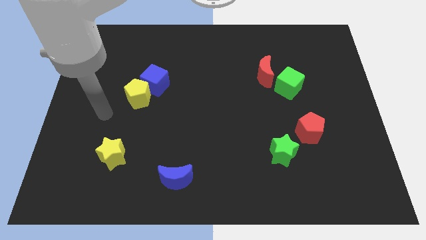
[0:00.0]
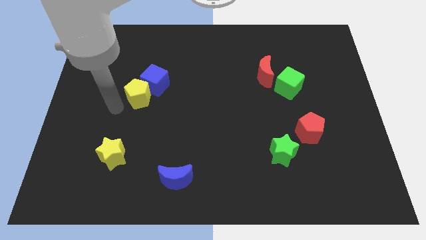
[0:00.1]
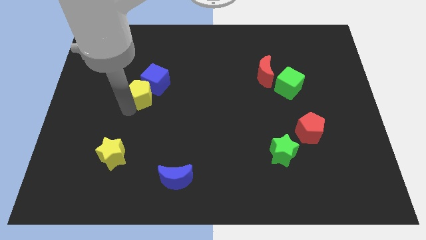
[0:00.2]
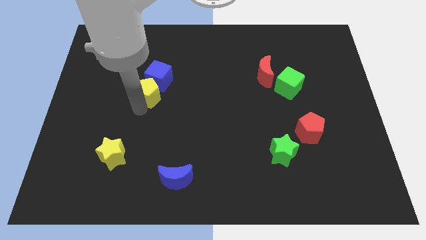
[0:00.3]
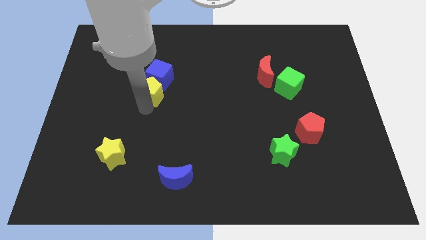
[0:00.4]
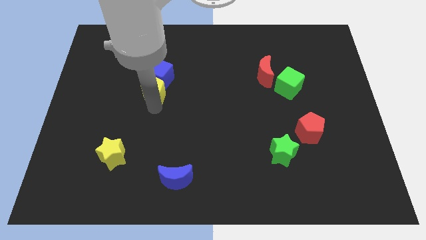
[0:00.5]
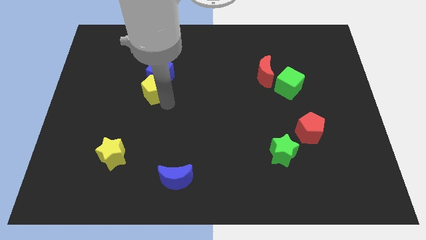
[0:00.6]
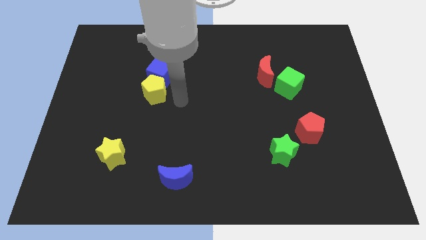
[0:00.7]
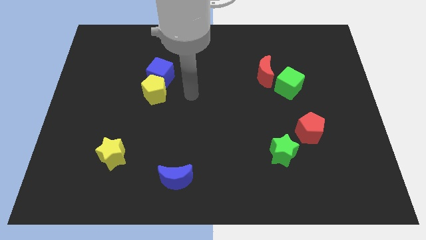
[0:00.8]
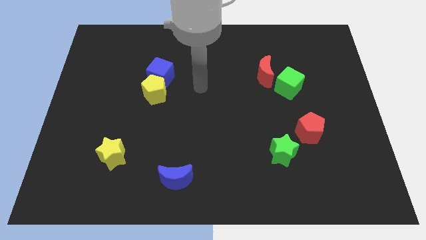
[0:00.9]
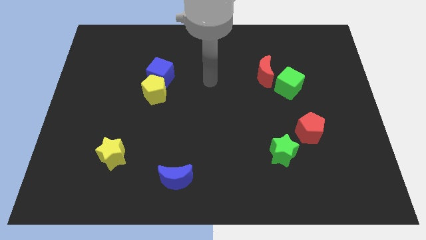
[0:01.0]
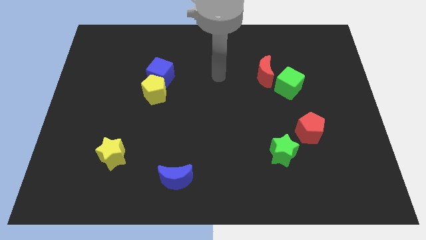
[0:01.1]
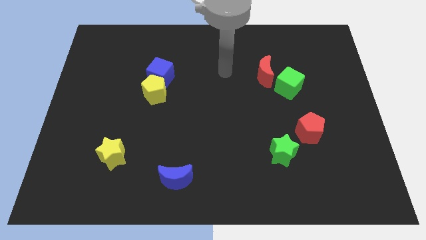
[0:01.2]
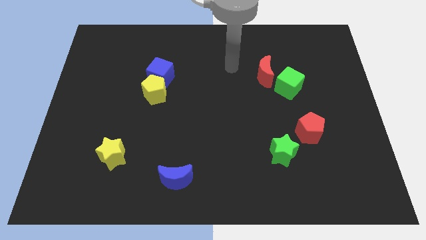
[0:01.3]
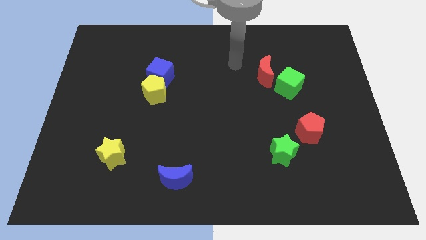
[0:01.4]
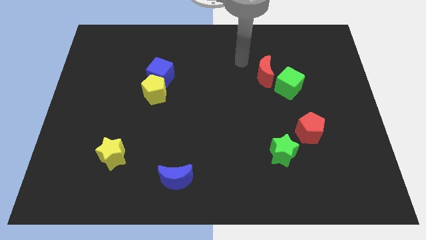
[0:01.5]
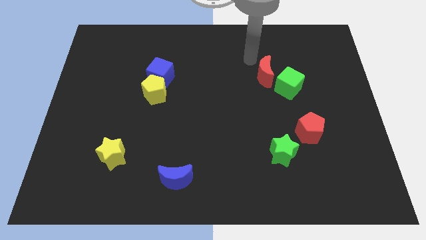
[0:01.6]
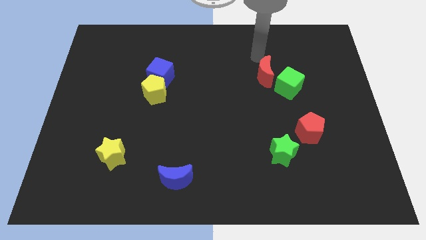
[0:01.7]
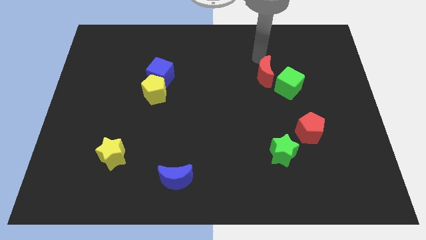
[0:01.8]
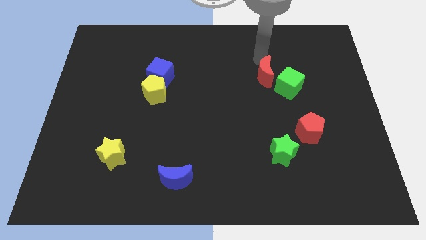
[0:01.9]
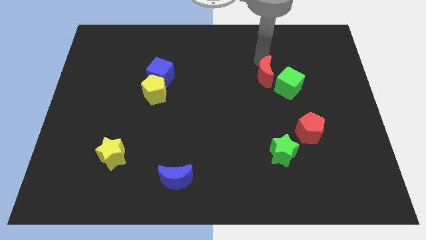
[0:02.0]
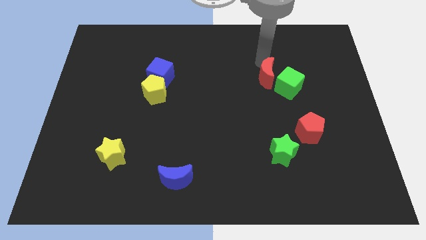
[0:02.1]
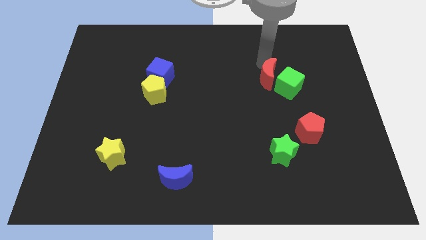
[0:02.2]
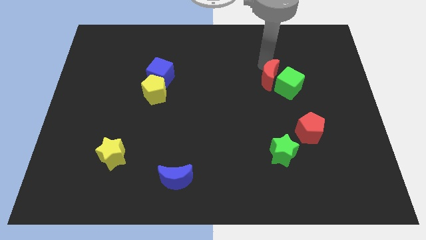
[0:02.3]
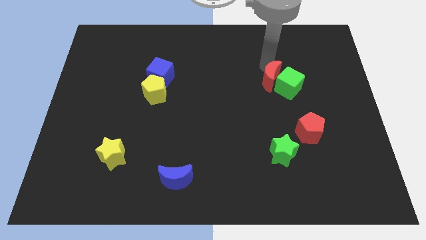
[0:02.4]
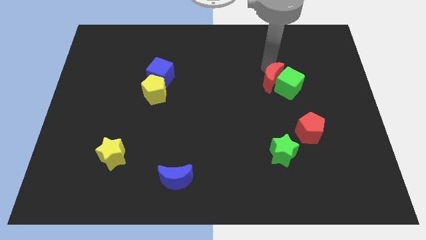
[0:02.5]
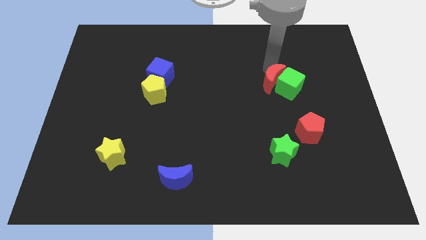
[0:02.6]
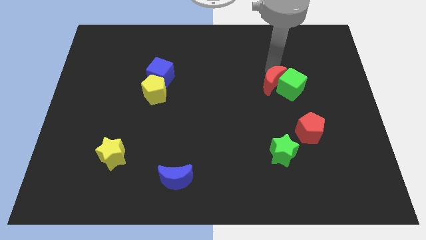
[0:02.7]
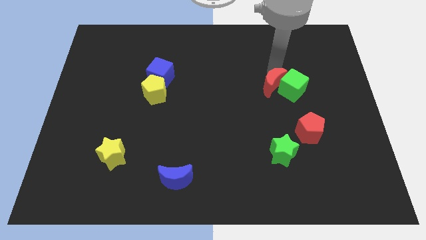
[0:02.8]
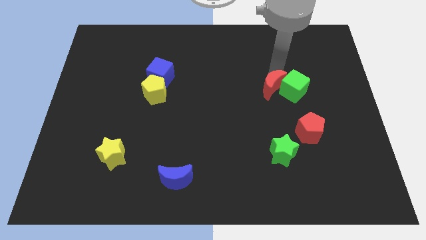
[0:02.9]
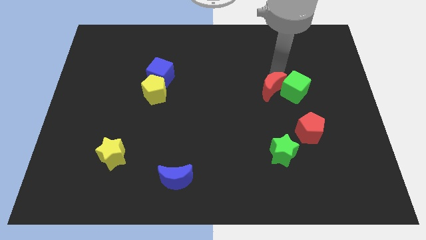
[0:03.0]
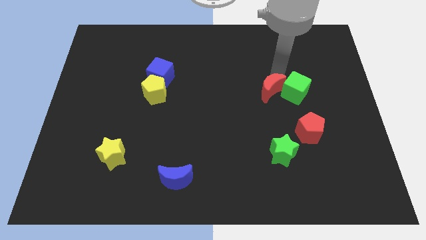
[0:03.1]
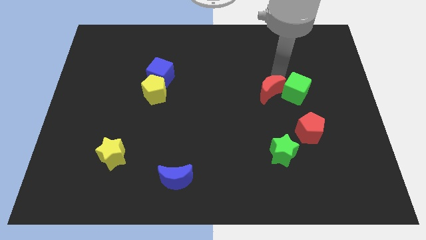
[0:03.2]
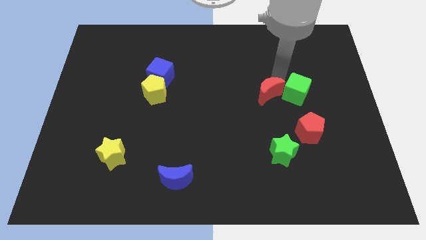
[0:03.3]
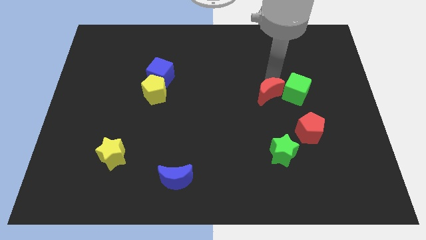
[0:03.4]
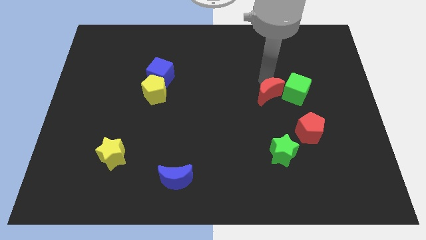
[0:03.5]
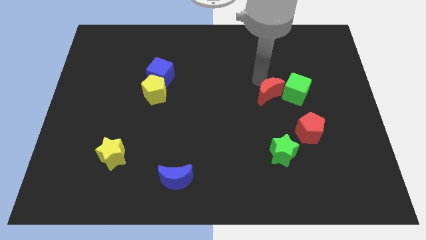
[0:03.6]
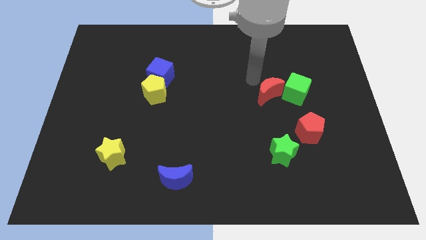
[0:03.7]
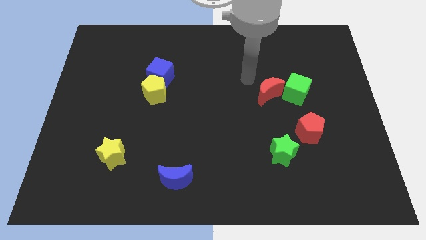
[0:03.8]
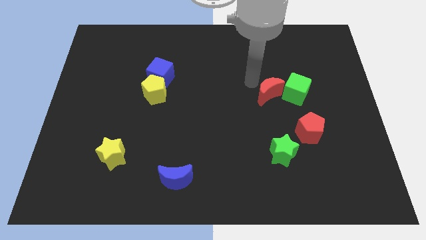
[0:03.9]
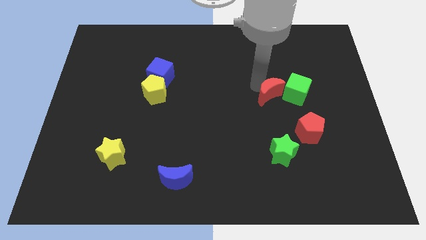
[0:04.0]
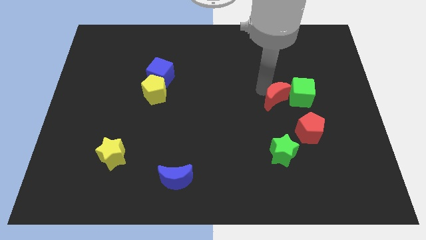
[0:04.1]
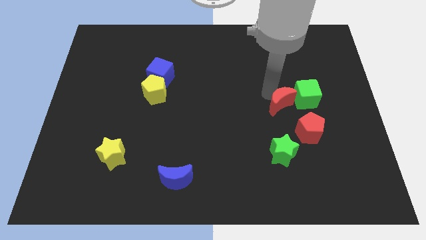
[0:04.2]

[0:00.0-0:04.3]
slide the red moon down and right diagonally a bit

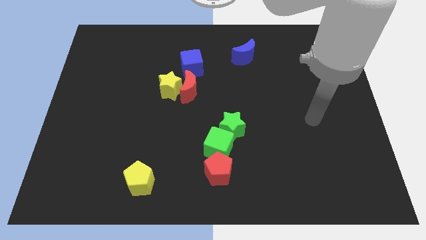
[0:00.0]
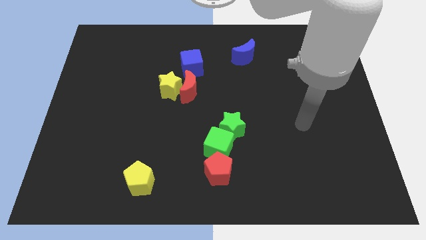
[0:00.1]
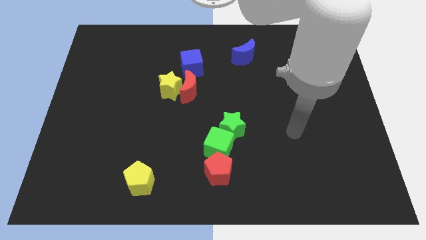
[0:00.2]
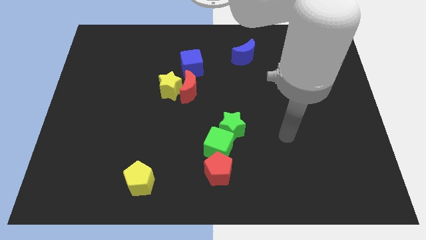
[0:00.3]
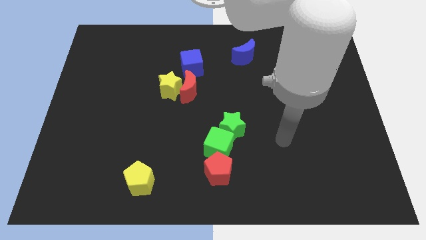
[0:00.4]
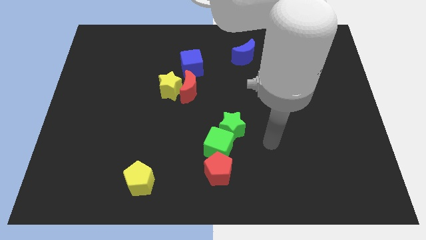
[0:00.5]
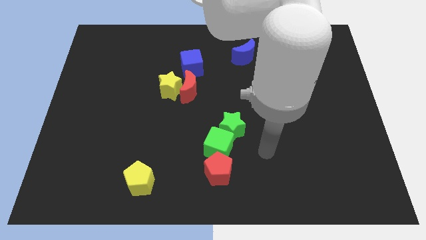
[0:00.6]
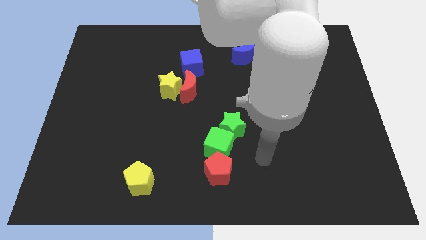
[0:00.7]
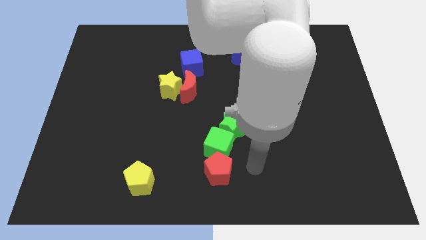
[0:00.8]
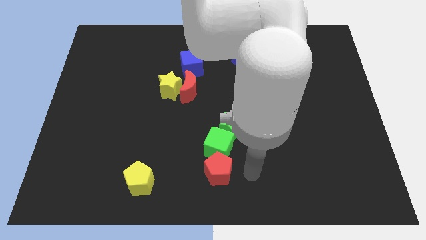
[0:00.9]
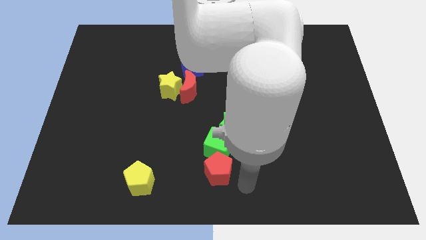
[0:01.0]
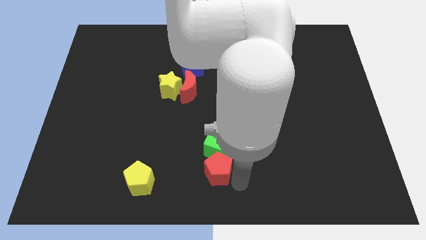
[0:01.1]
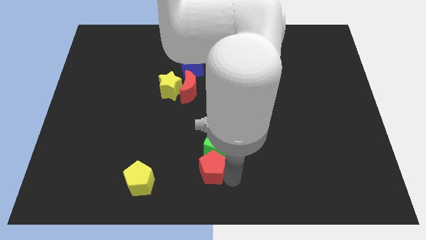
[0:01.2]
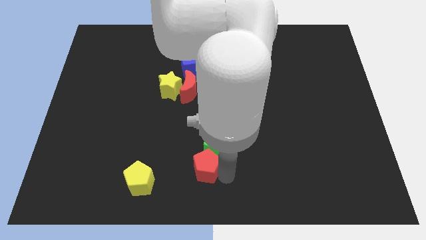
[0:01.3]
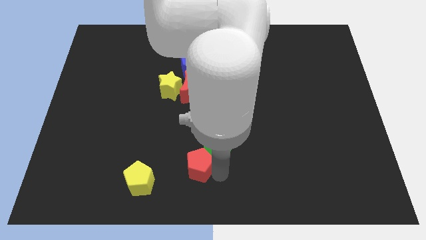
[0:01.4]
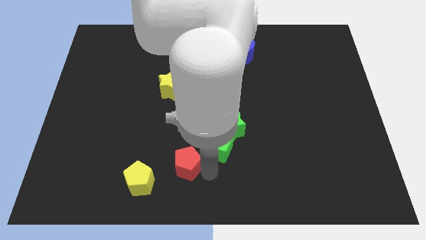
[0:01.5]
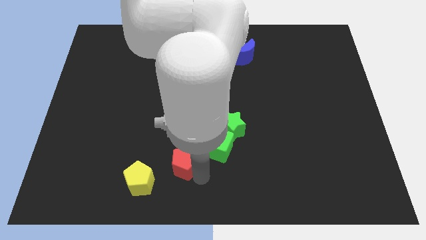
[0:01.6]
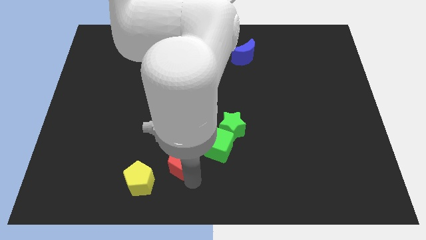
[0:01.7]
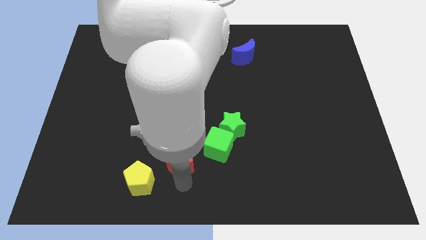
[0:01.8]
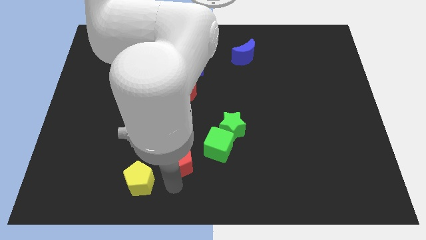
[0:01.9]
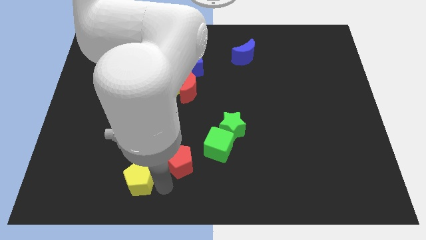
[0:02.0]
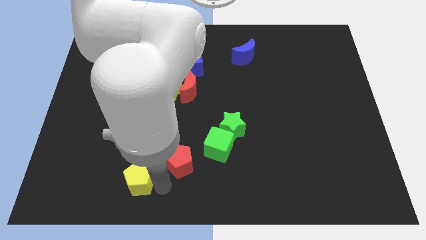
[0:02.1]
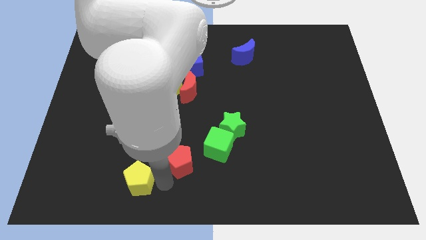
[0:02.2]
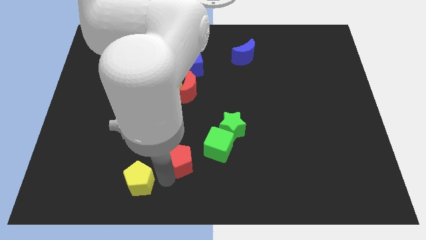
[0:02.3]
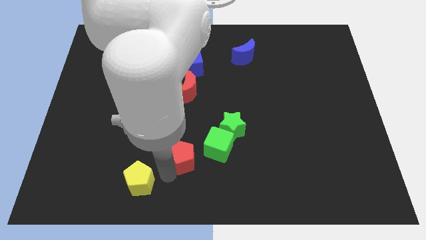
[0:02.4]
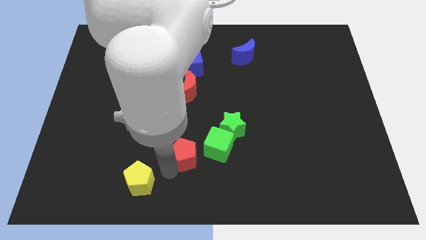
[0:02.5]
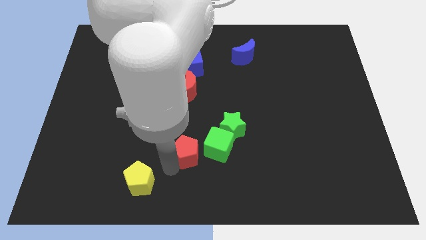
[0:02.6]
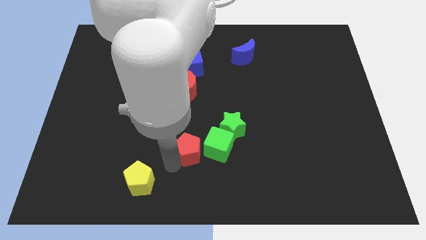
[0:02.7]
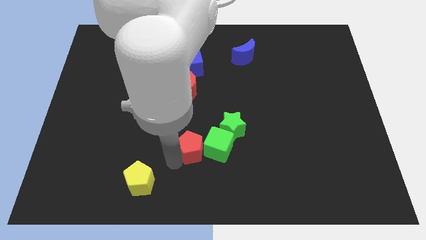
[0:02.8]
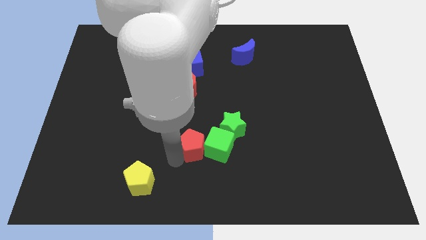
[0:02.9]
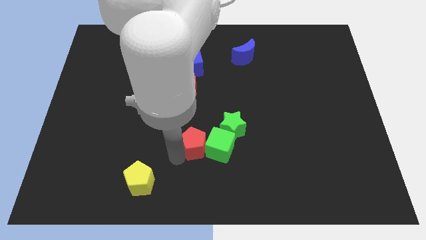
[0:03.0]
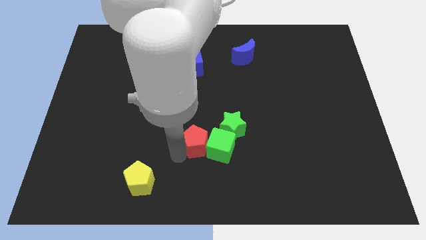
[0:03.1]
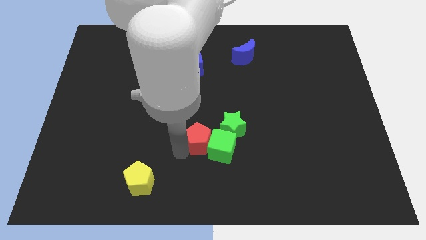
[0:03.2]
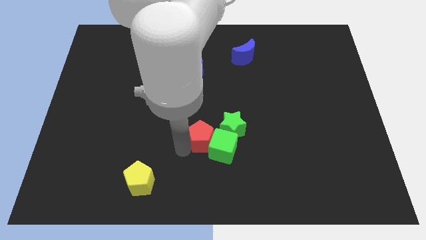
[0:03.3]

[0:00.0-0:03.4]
move the red pentagon a little up

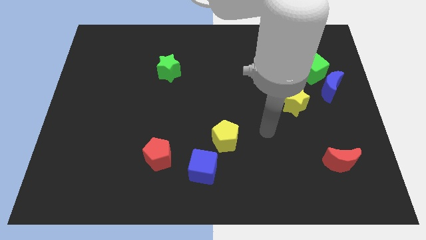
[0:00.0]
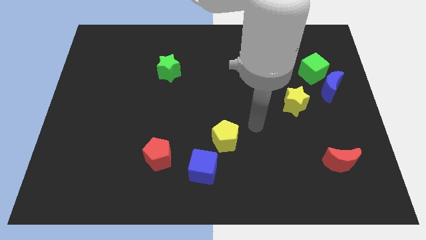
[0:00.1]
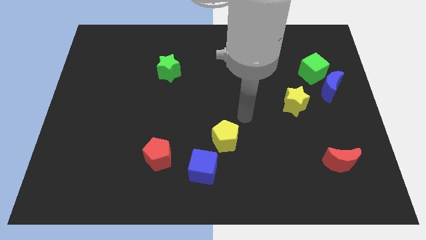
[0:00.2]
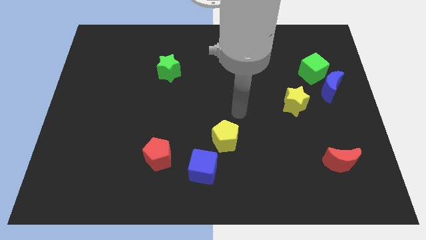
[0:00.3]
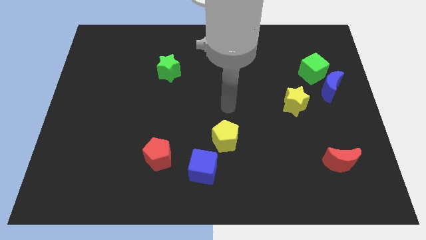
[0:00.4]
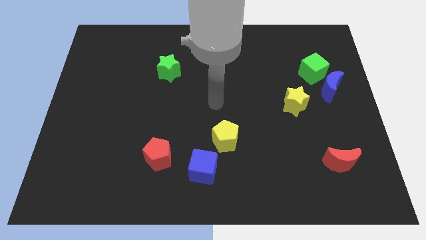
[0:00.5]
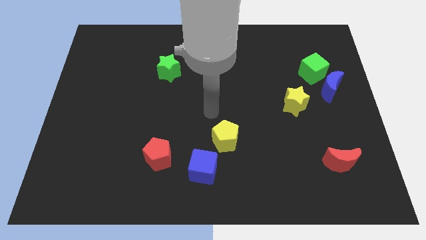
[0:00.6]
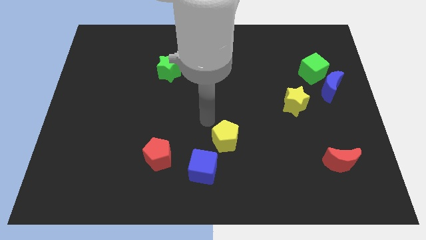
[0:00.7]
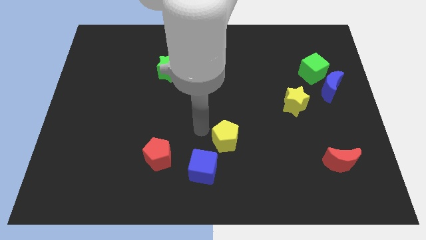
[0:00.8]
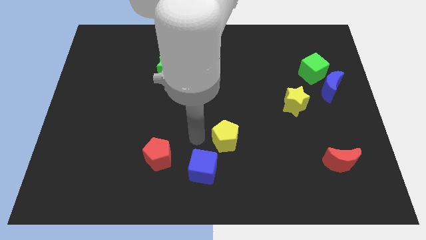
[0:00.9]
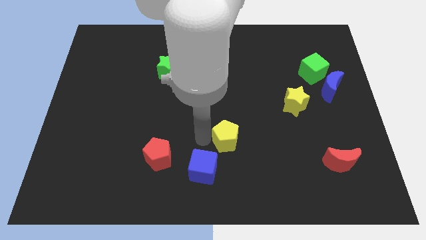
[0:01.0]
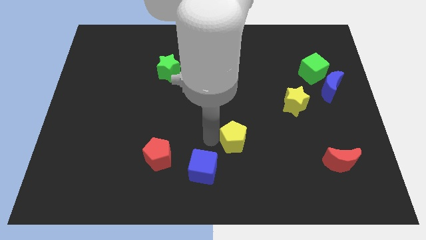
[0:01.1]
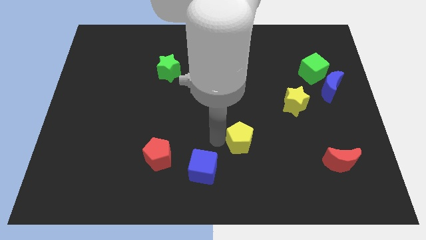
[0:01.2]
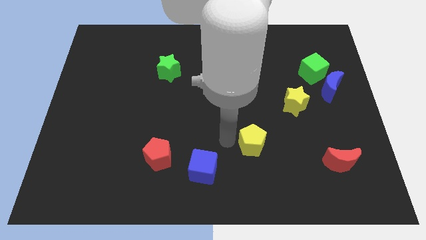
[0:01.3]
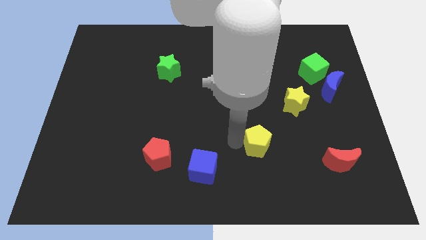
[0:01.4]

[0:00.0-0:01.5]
move the yellow pentagon right a little
